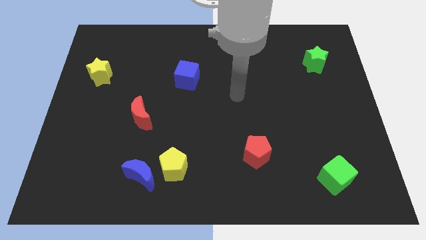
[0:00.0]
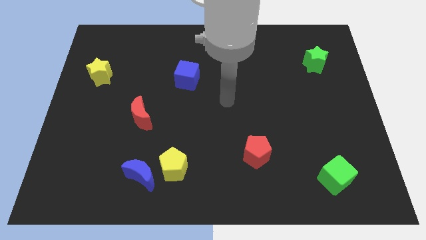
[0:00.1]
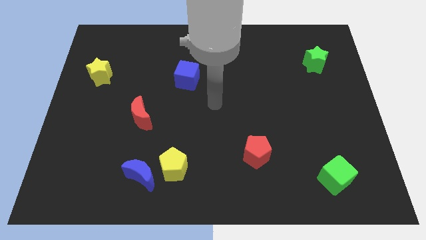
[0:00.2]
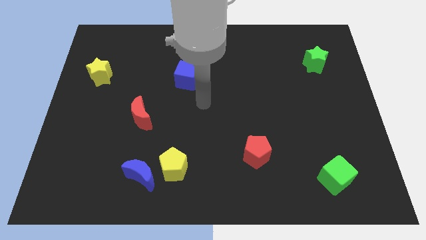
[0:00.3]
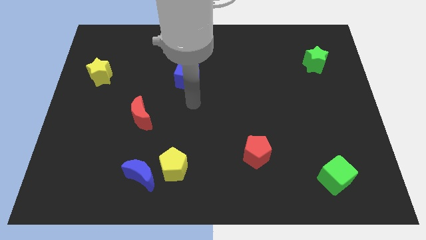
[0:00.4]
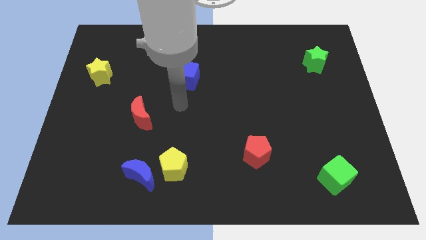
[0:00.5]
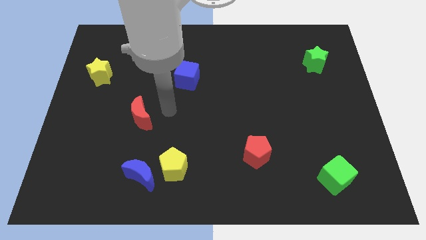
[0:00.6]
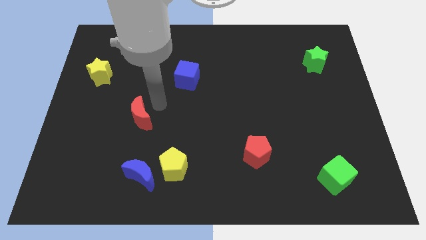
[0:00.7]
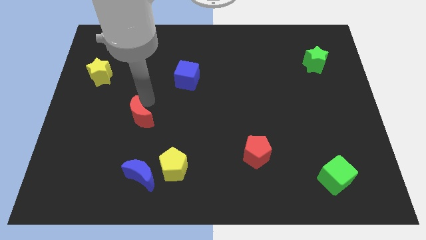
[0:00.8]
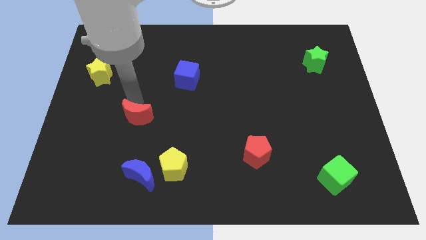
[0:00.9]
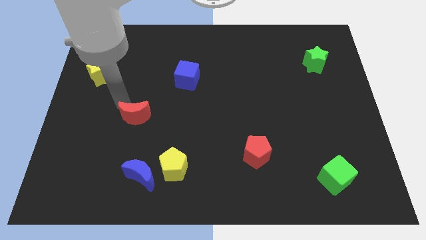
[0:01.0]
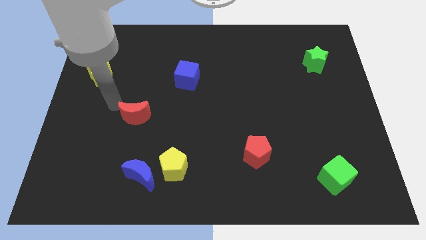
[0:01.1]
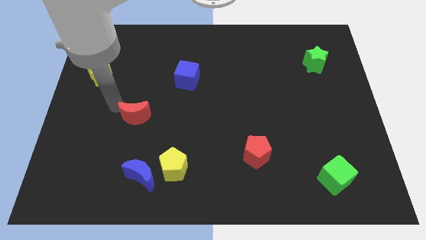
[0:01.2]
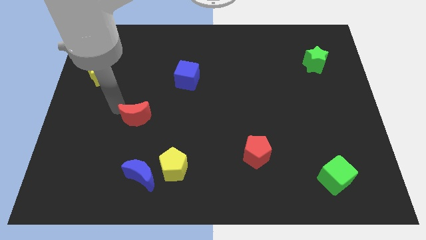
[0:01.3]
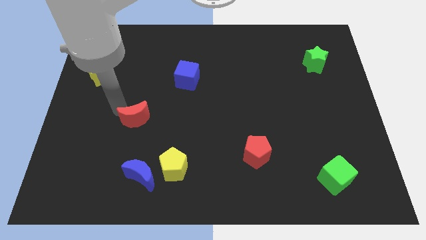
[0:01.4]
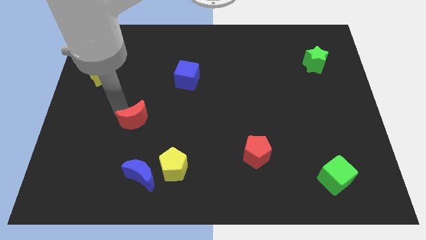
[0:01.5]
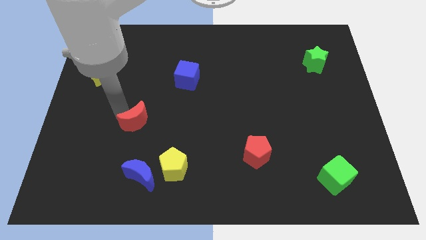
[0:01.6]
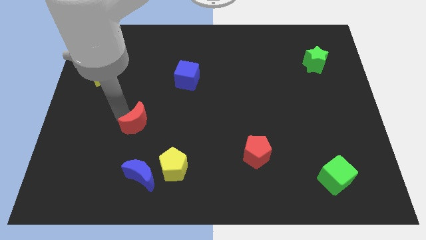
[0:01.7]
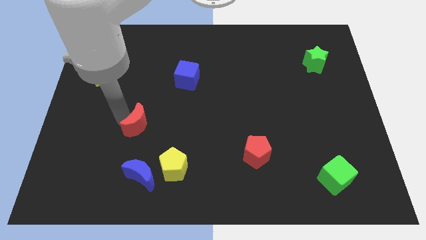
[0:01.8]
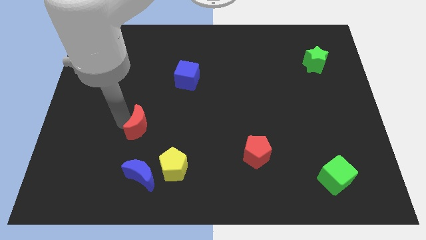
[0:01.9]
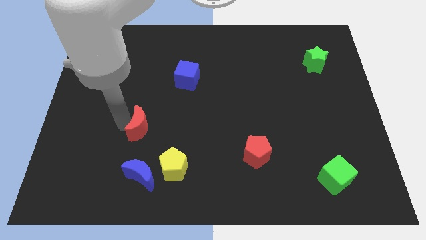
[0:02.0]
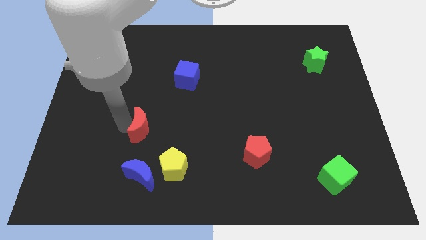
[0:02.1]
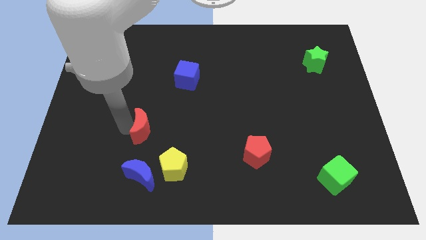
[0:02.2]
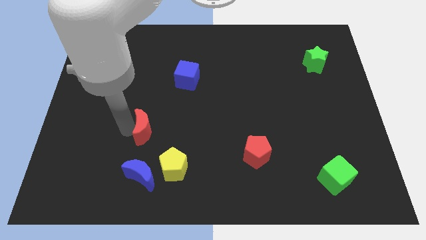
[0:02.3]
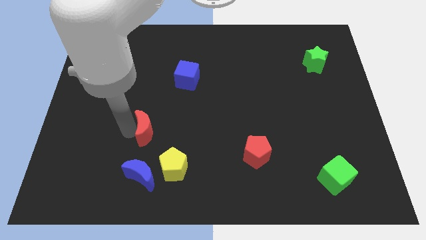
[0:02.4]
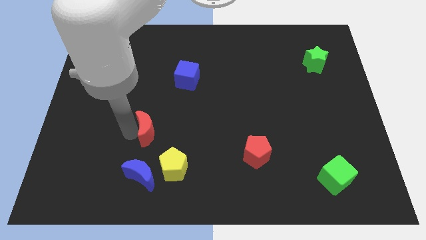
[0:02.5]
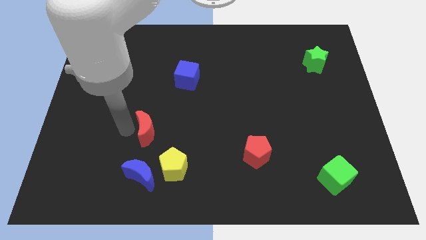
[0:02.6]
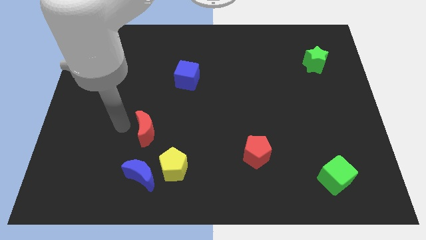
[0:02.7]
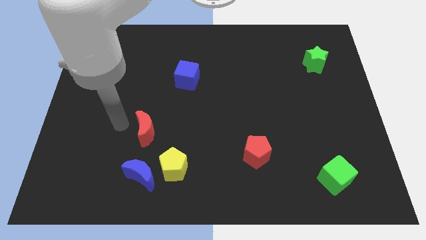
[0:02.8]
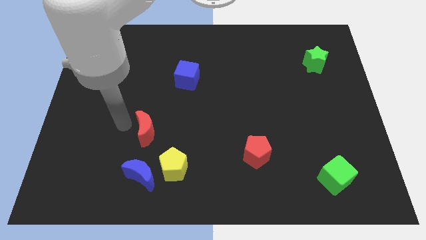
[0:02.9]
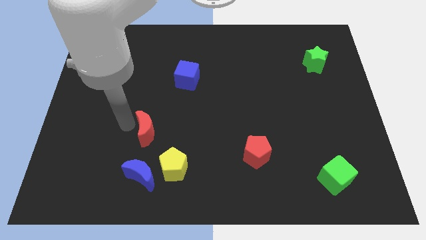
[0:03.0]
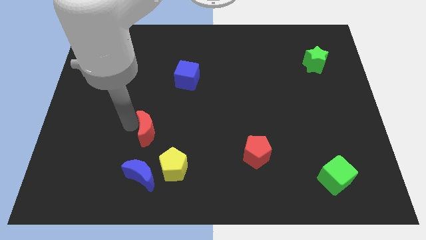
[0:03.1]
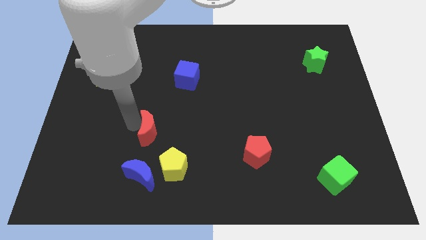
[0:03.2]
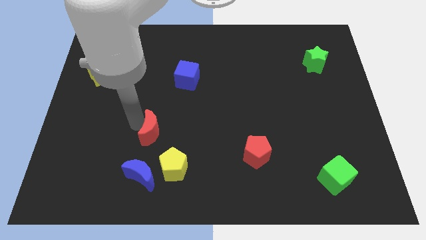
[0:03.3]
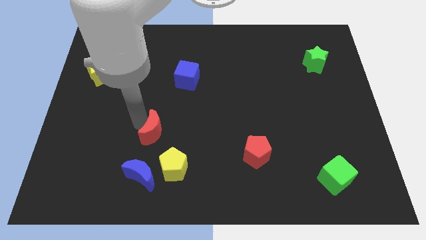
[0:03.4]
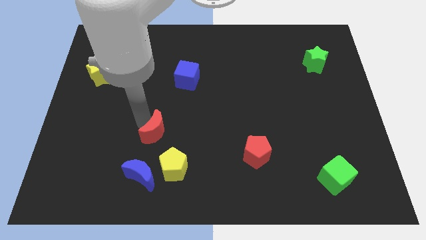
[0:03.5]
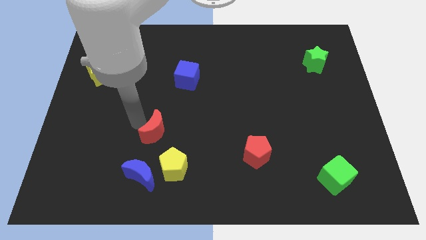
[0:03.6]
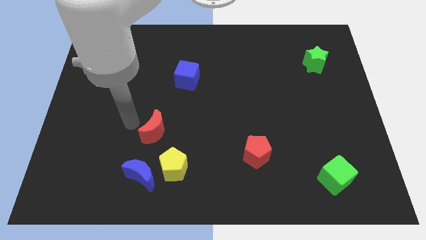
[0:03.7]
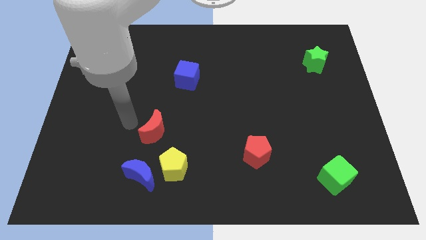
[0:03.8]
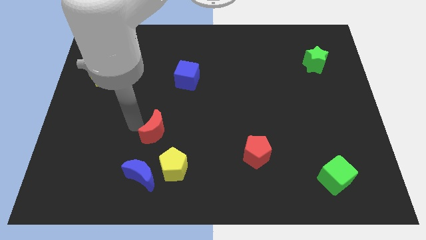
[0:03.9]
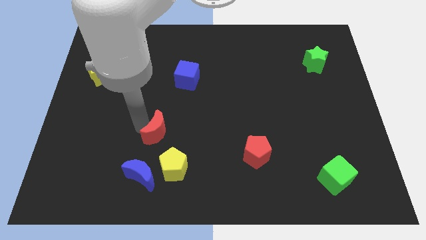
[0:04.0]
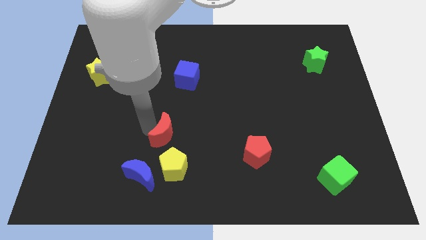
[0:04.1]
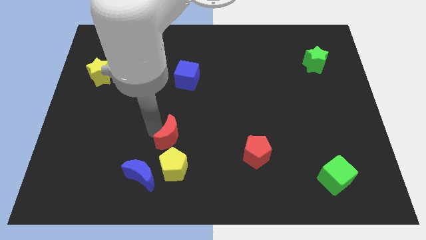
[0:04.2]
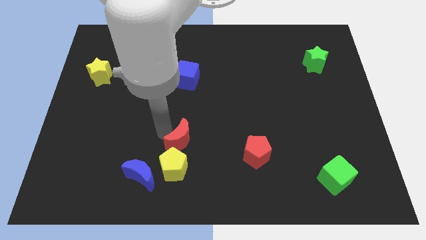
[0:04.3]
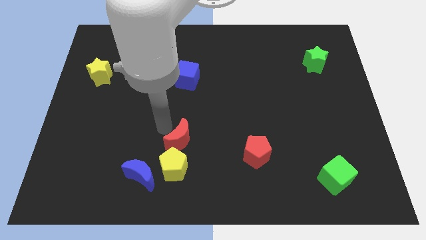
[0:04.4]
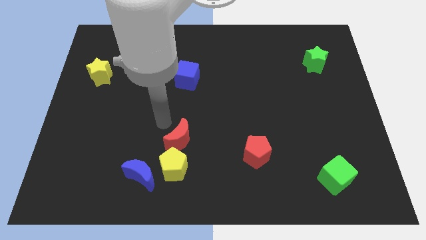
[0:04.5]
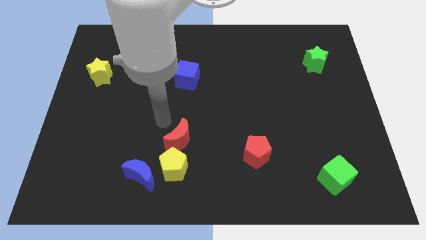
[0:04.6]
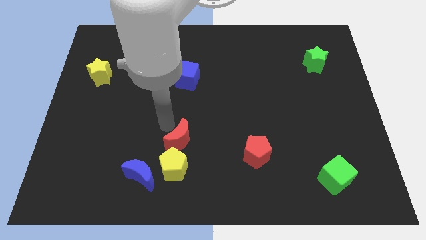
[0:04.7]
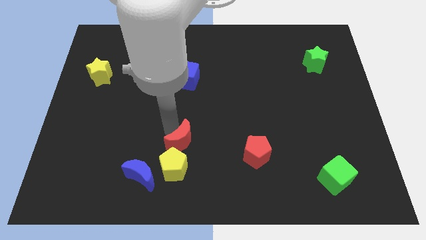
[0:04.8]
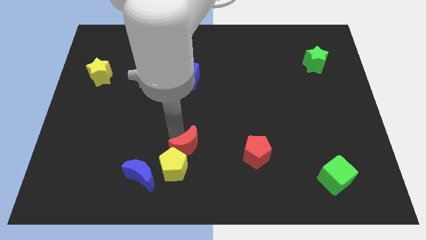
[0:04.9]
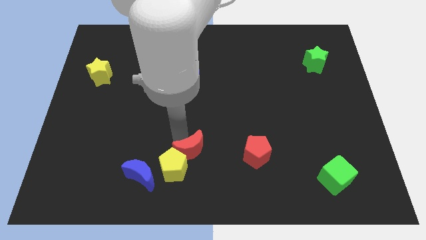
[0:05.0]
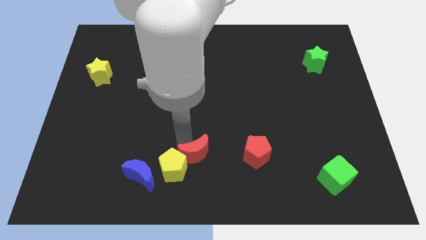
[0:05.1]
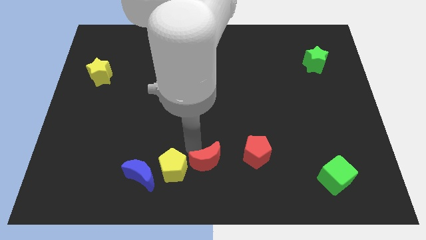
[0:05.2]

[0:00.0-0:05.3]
move the red moon to the bottom side

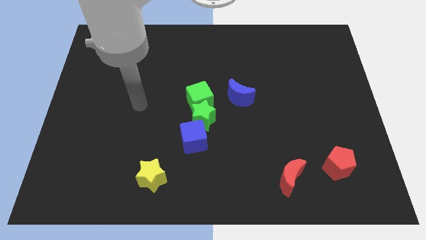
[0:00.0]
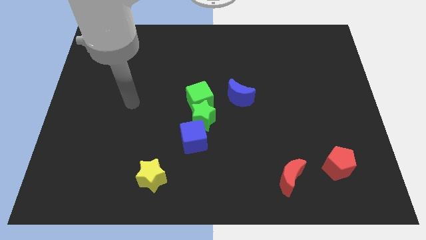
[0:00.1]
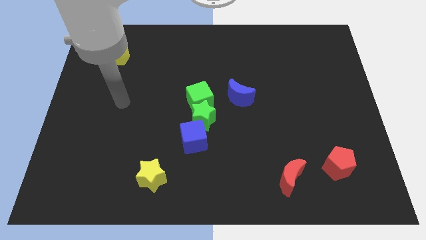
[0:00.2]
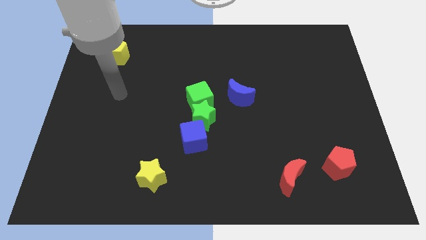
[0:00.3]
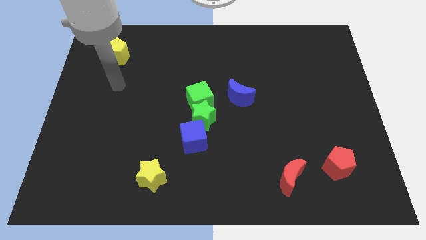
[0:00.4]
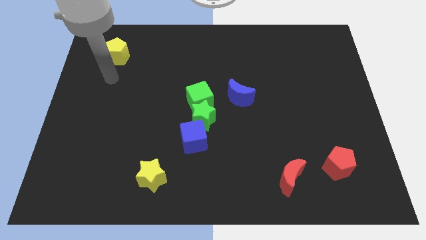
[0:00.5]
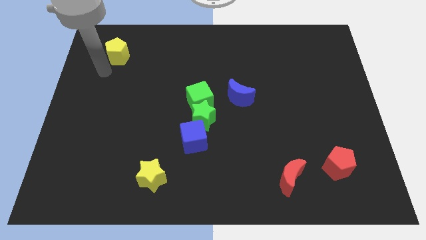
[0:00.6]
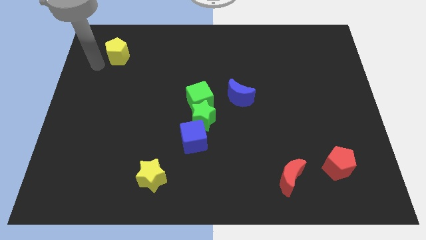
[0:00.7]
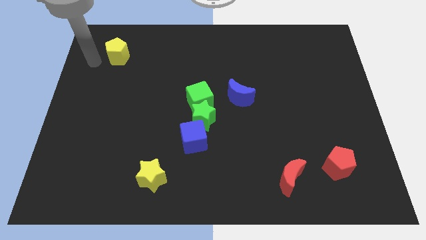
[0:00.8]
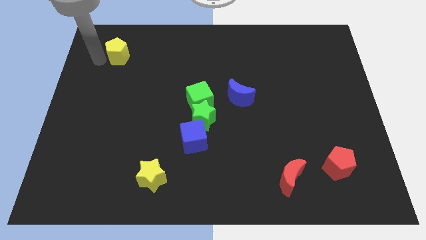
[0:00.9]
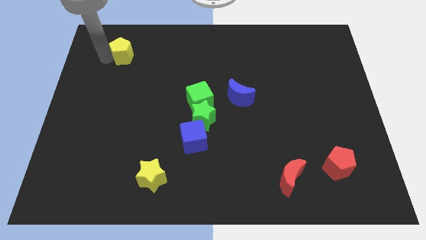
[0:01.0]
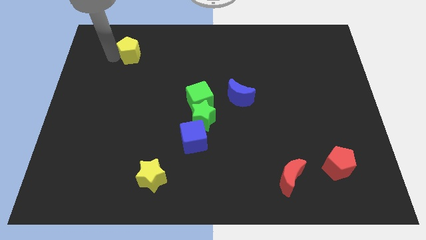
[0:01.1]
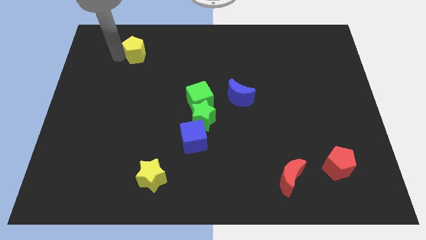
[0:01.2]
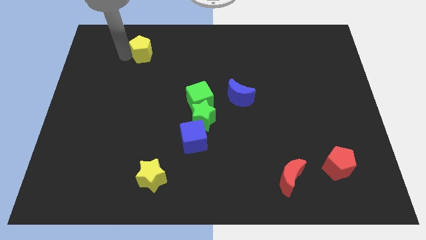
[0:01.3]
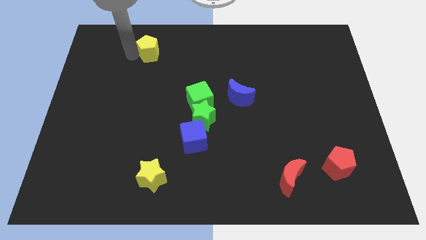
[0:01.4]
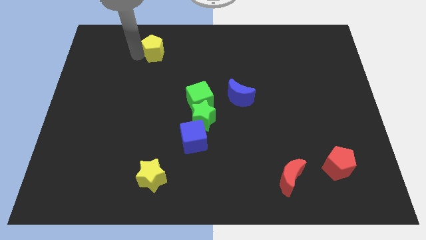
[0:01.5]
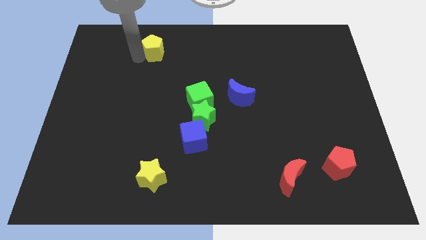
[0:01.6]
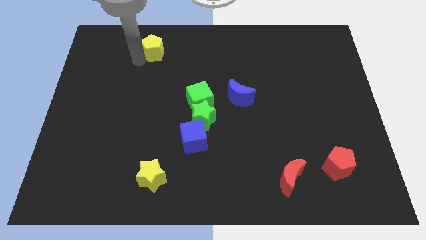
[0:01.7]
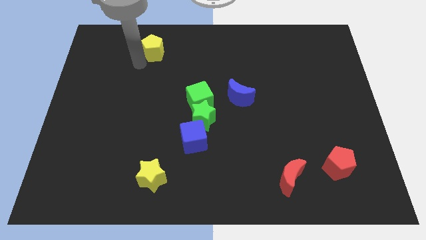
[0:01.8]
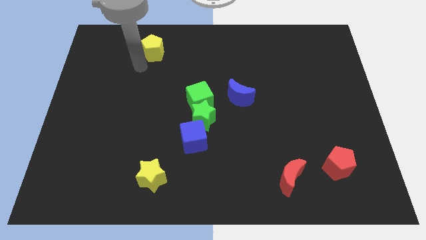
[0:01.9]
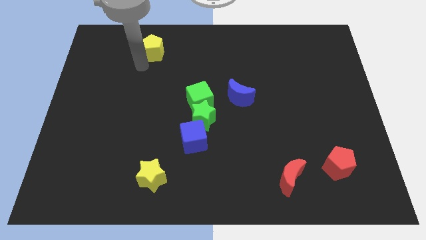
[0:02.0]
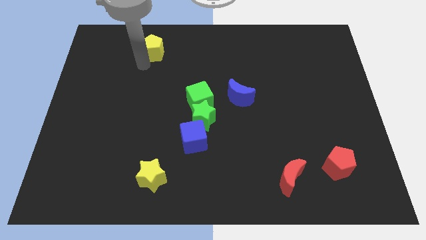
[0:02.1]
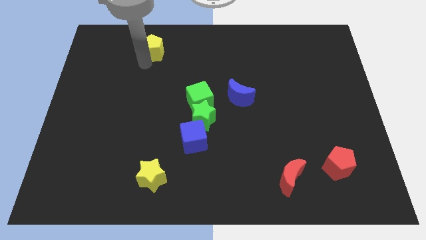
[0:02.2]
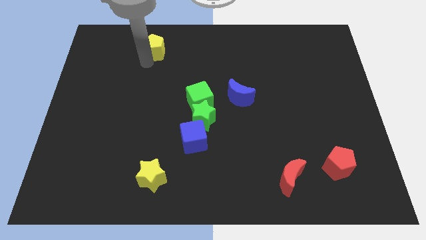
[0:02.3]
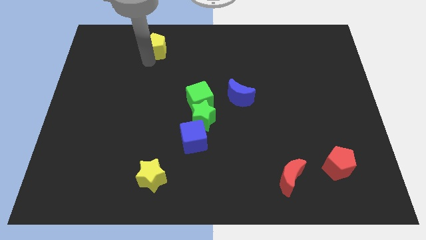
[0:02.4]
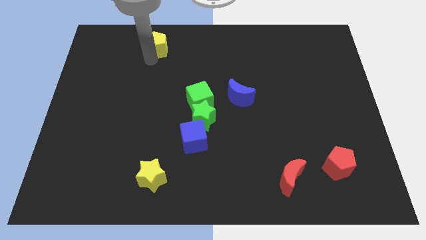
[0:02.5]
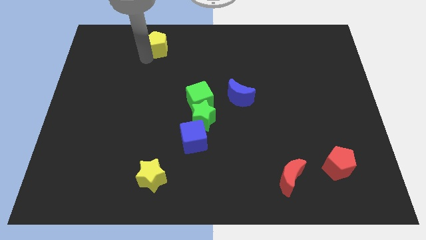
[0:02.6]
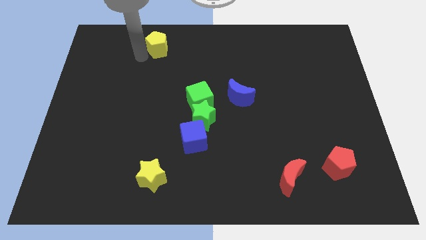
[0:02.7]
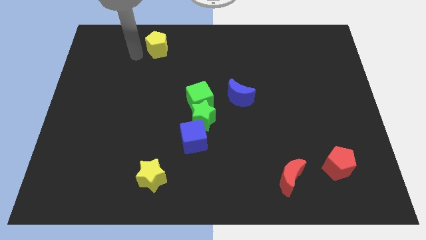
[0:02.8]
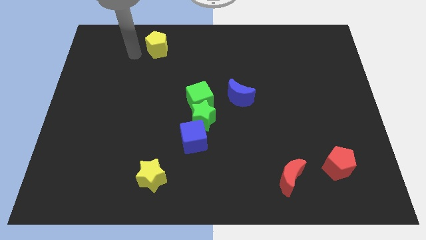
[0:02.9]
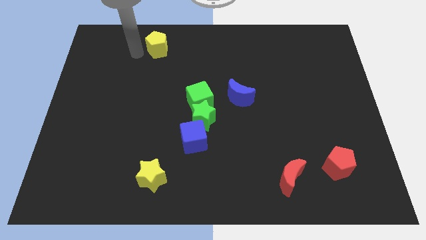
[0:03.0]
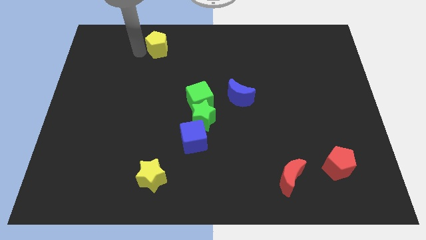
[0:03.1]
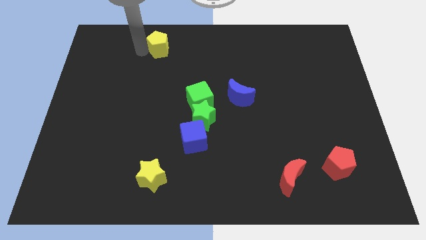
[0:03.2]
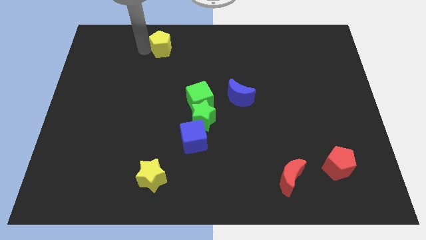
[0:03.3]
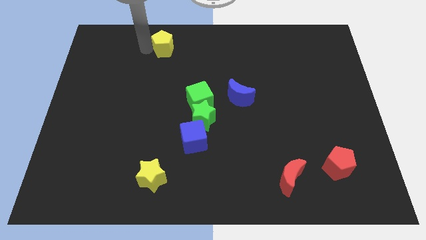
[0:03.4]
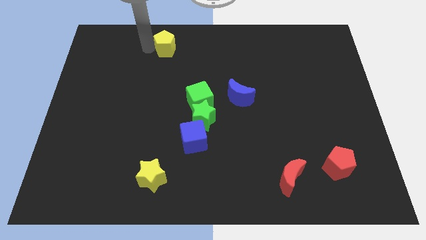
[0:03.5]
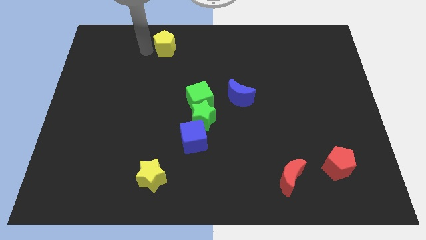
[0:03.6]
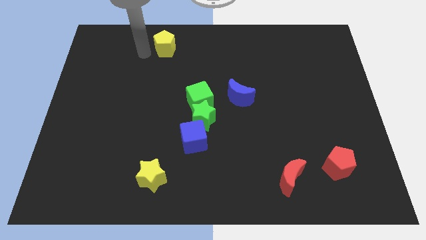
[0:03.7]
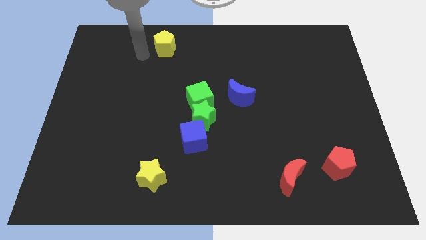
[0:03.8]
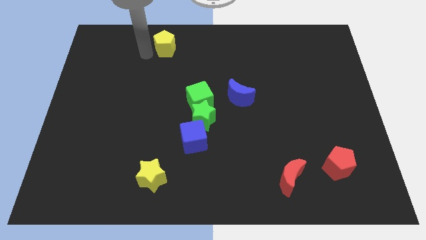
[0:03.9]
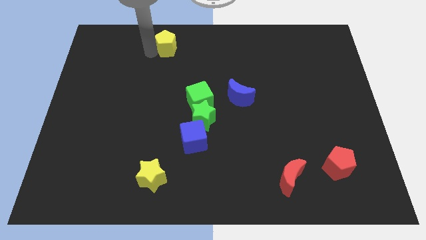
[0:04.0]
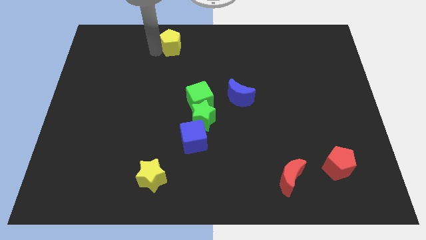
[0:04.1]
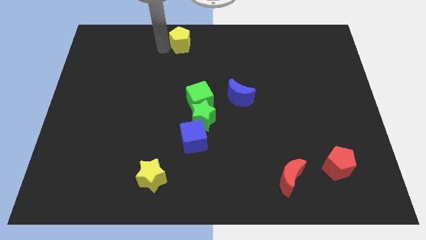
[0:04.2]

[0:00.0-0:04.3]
put the yellow pentagon to the top side
